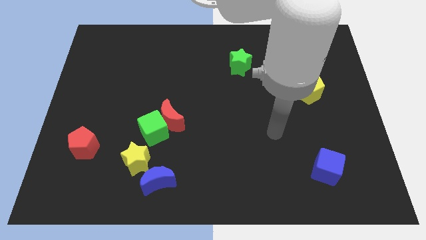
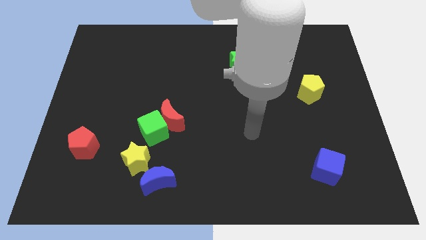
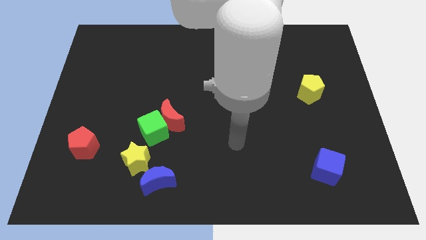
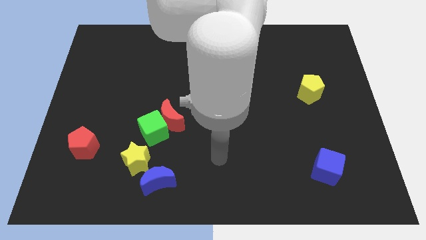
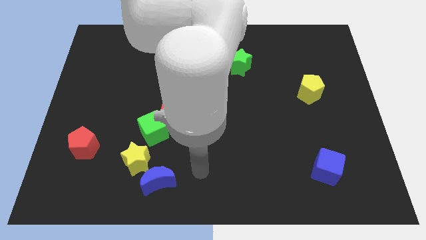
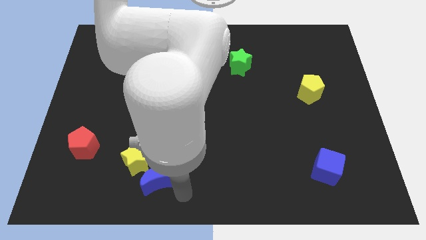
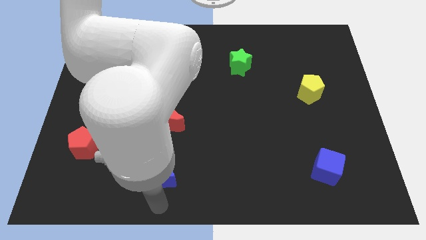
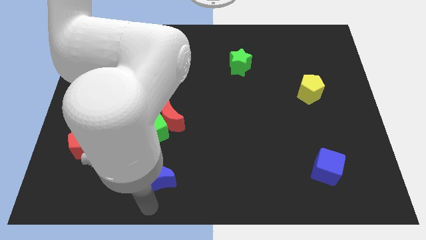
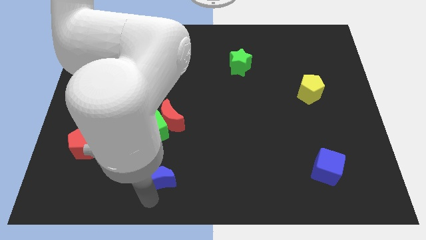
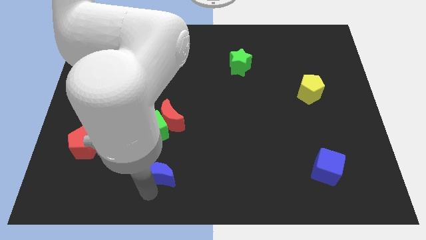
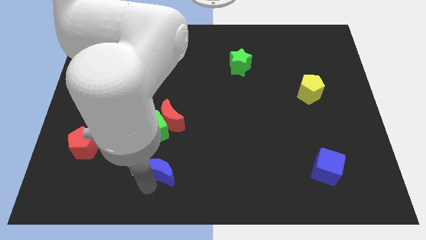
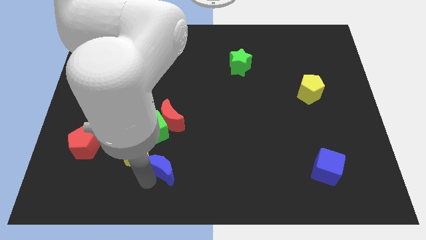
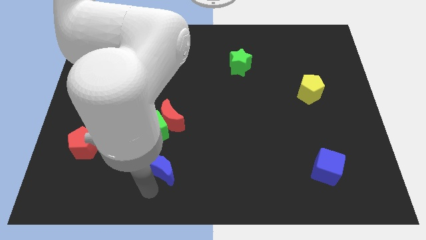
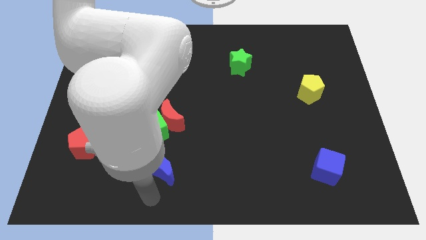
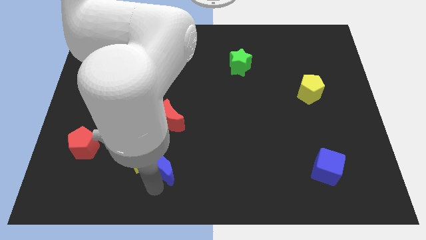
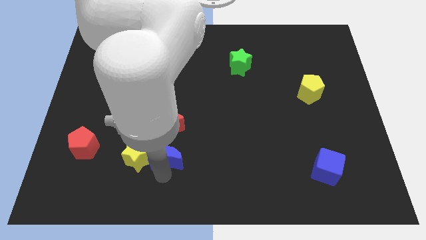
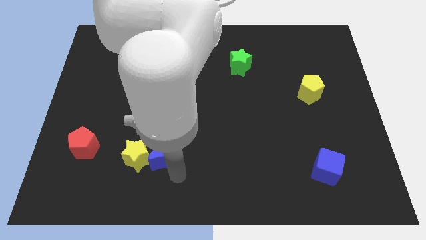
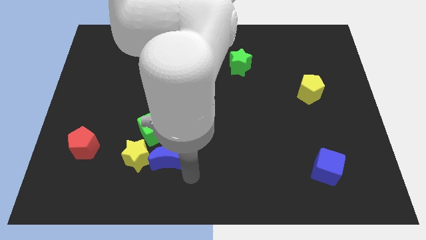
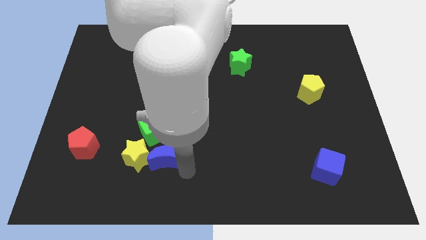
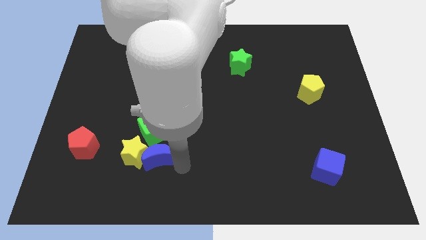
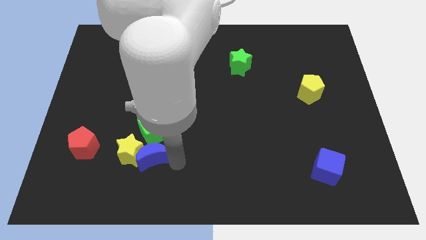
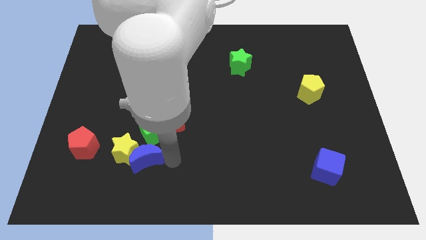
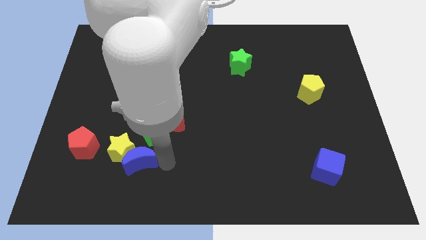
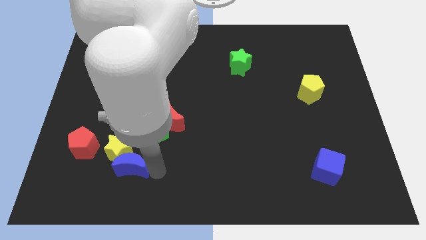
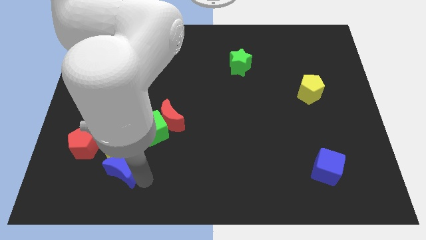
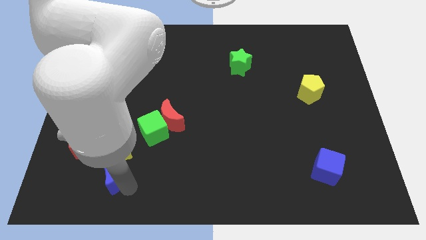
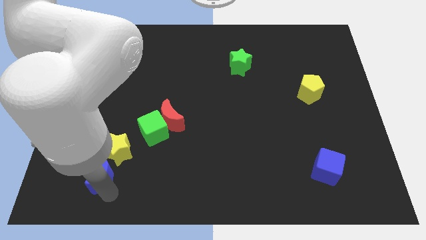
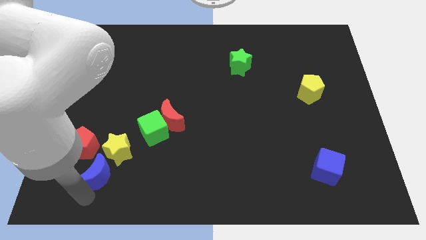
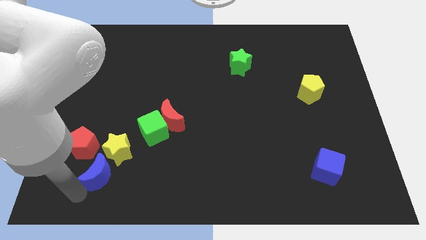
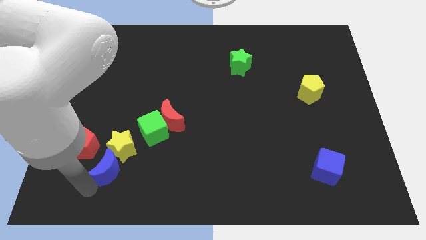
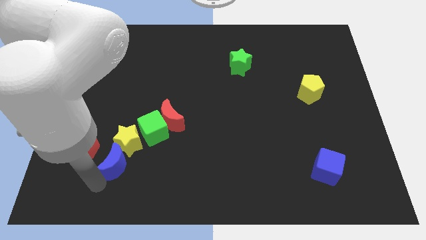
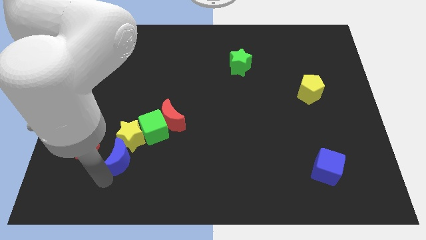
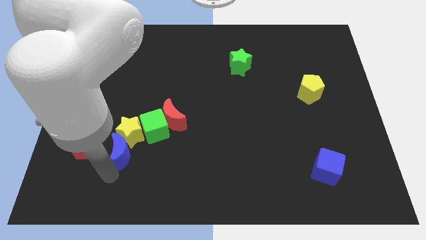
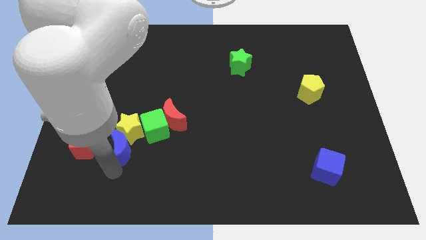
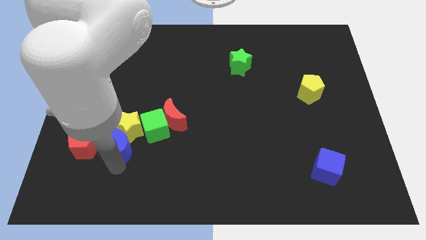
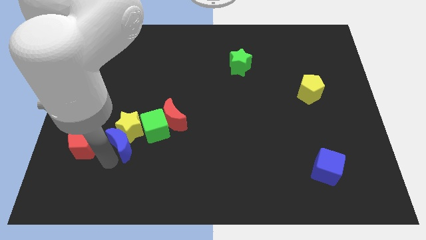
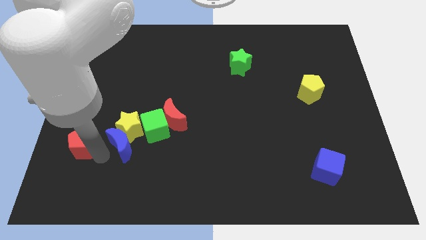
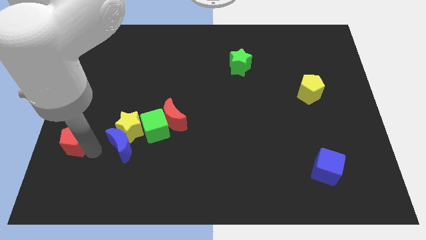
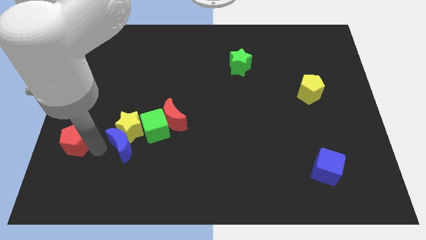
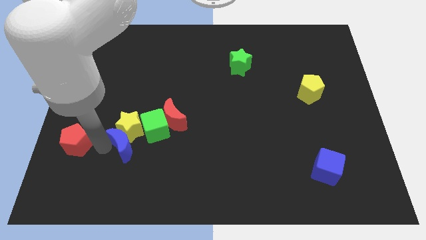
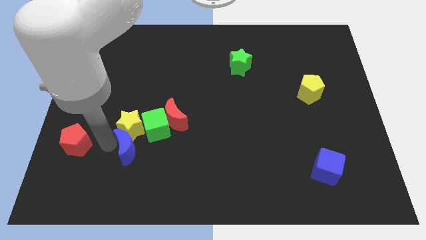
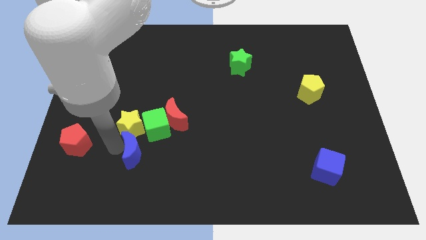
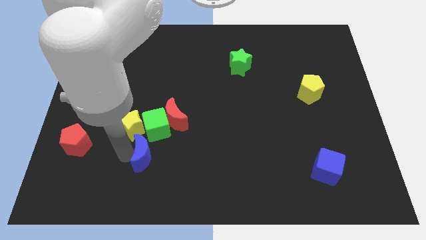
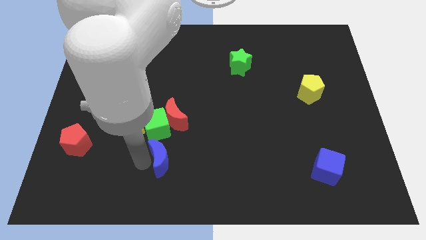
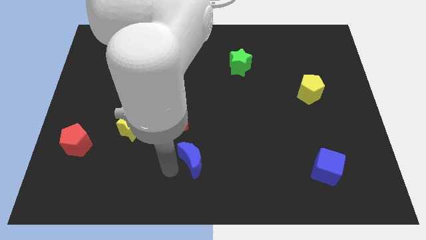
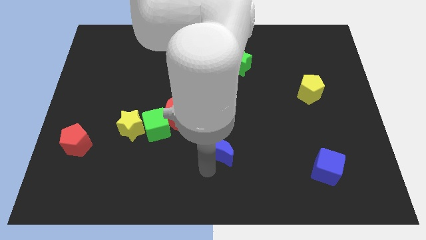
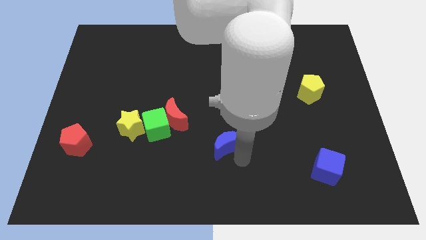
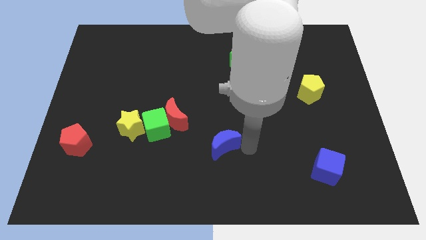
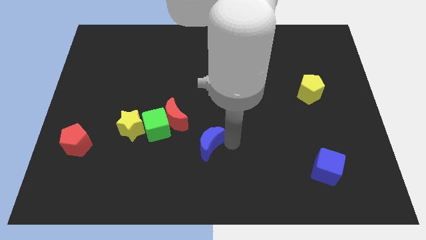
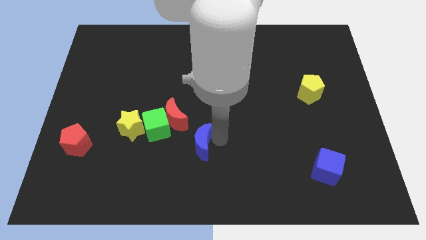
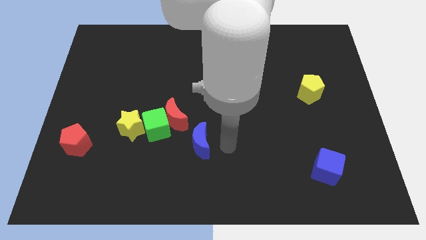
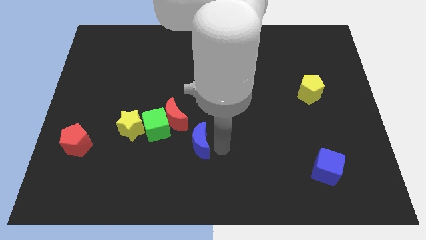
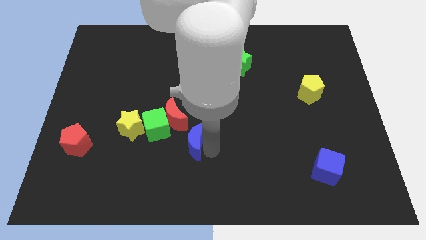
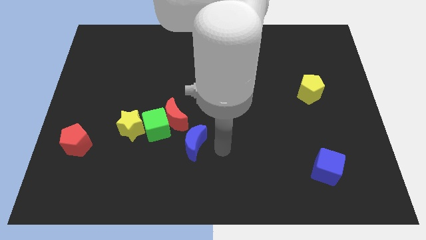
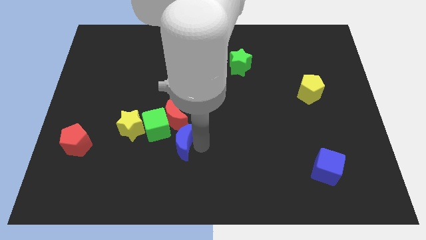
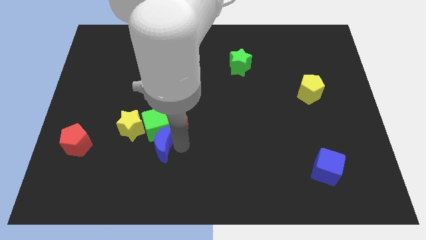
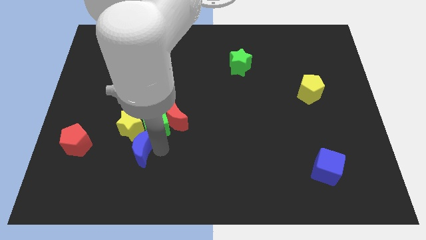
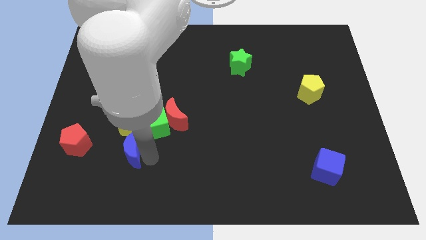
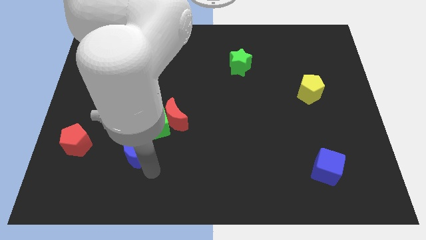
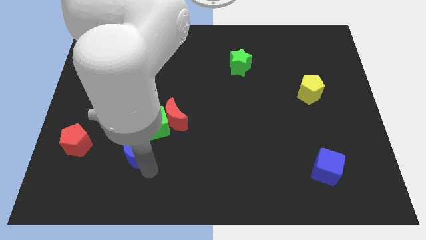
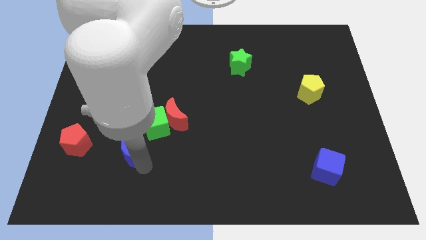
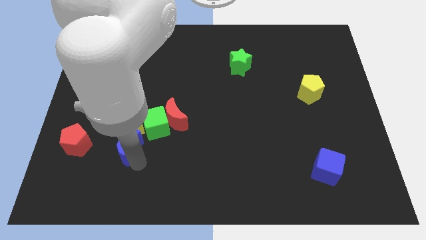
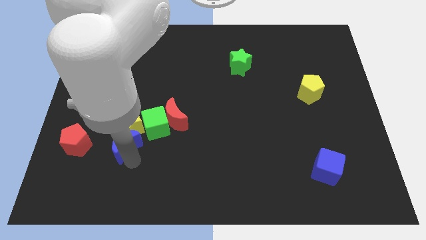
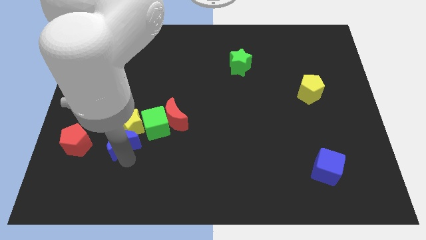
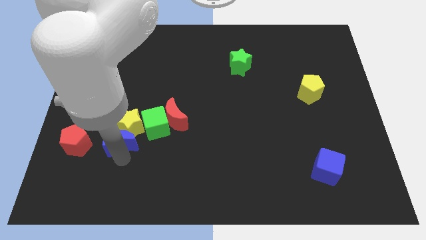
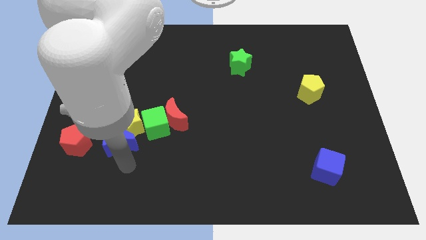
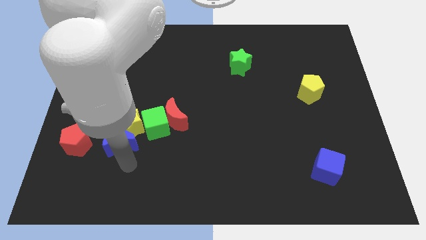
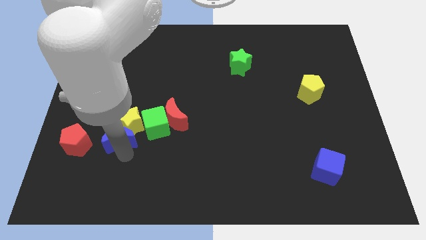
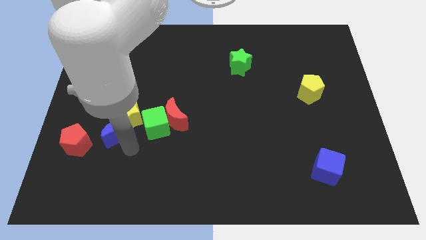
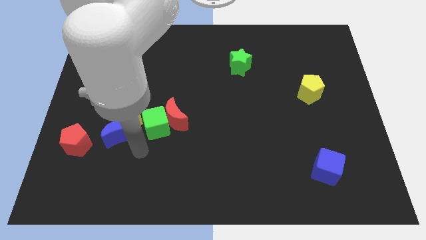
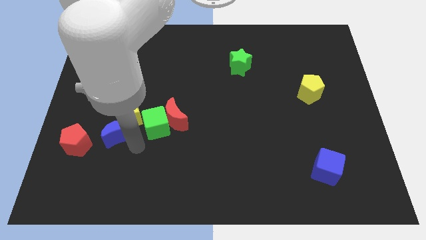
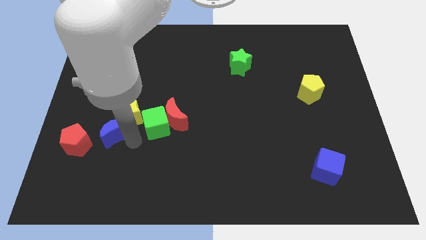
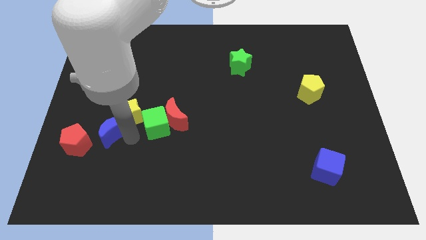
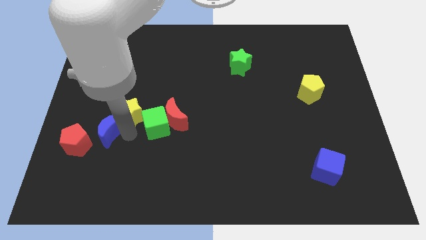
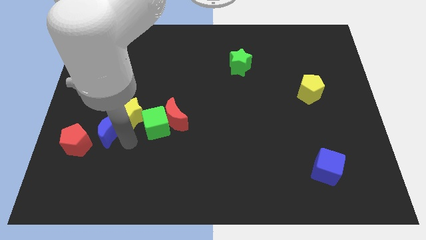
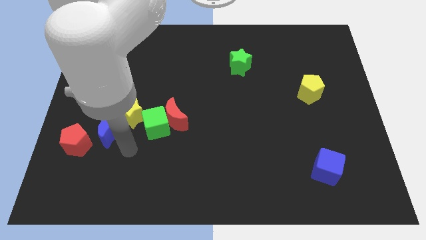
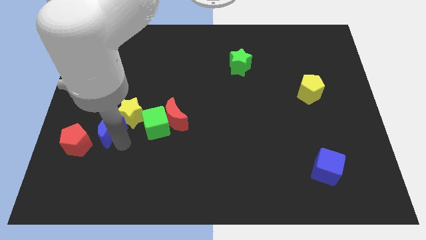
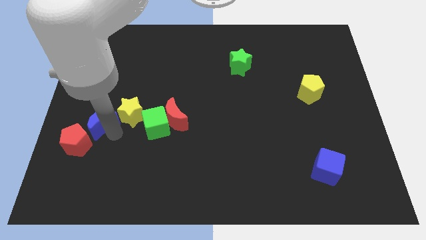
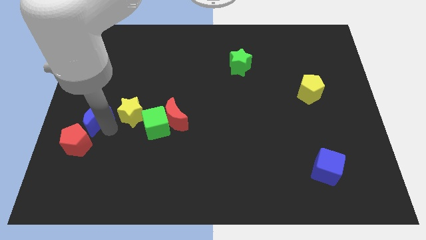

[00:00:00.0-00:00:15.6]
put the blue moon to the center left
